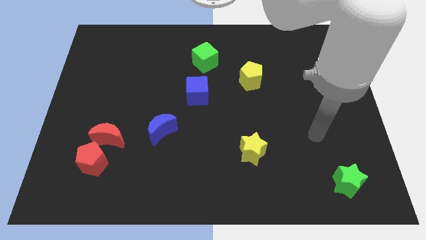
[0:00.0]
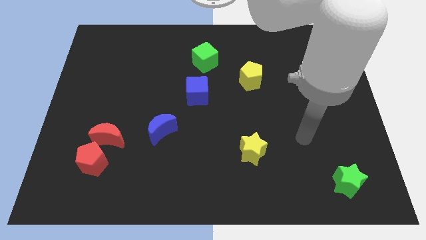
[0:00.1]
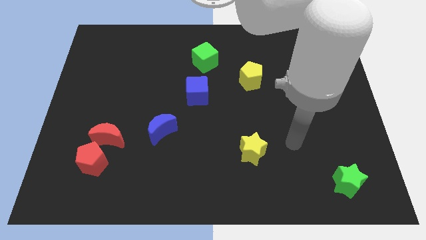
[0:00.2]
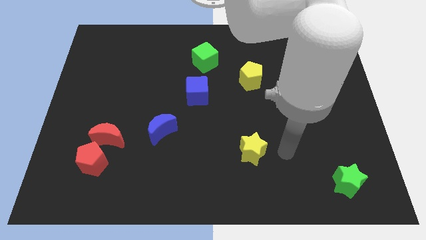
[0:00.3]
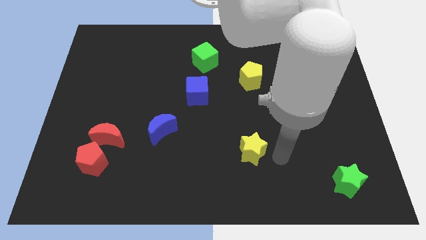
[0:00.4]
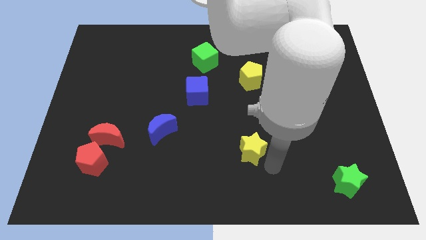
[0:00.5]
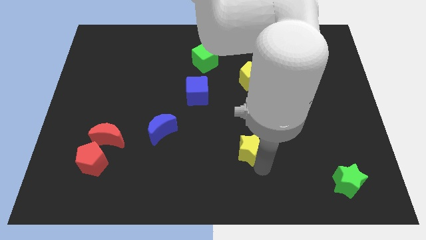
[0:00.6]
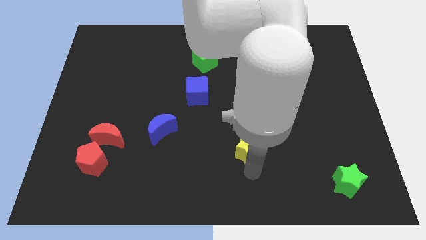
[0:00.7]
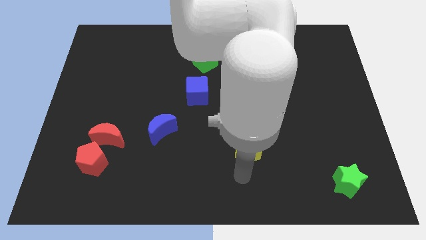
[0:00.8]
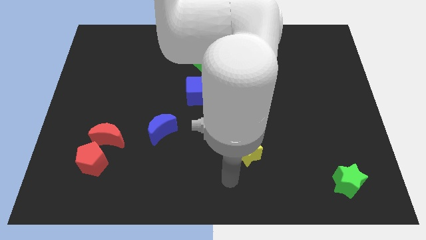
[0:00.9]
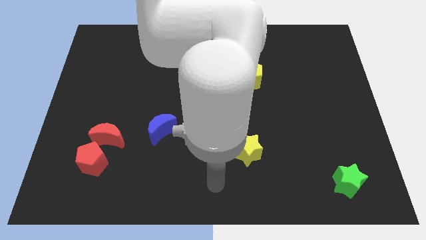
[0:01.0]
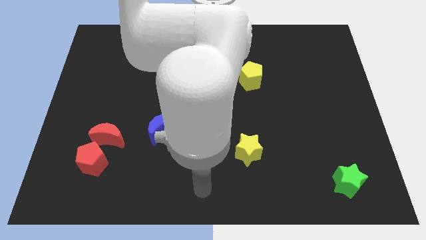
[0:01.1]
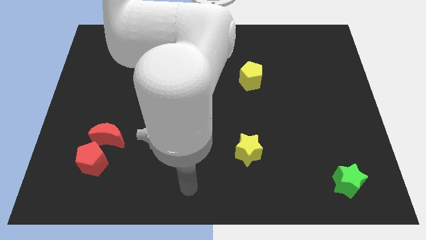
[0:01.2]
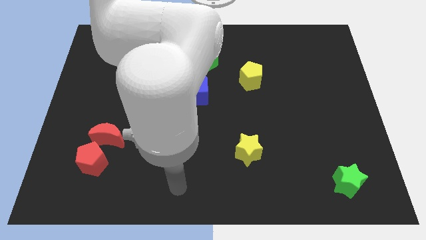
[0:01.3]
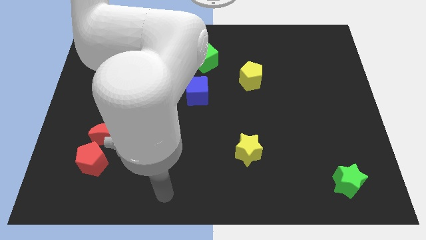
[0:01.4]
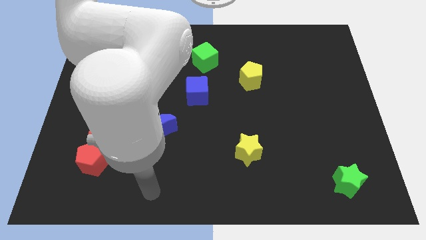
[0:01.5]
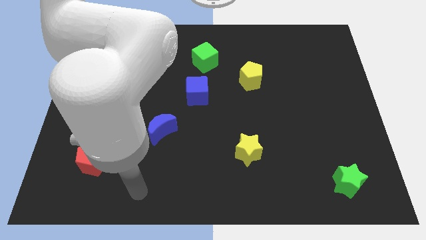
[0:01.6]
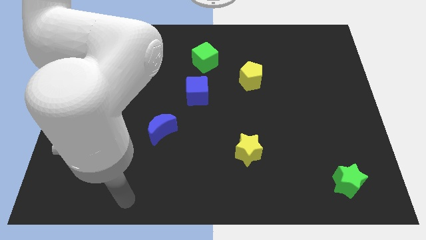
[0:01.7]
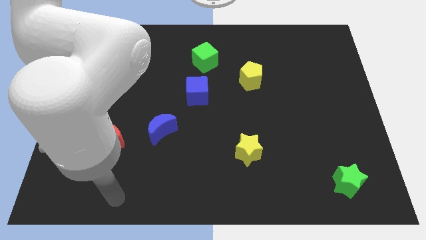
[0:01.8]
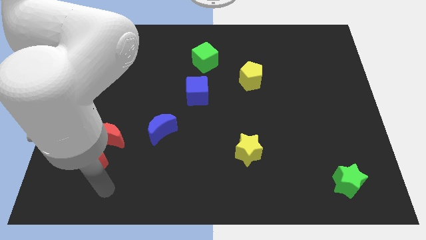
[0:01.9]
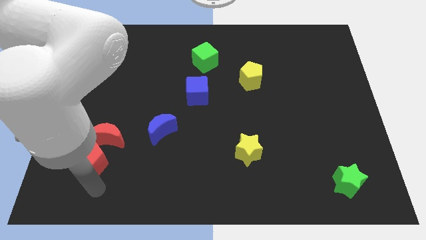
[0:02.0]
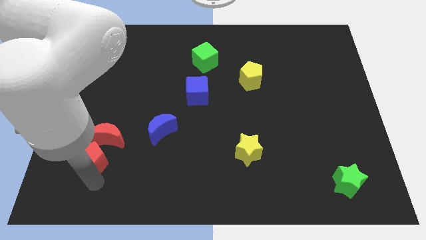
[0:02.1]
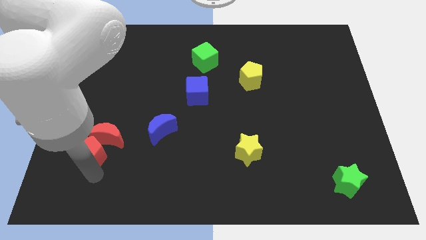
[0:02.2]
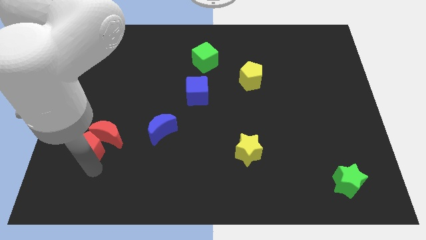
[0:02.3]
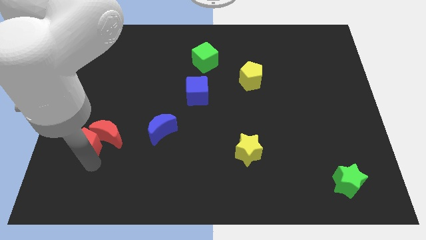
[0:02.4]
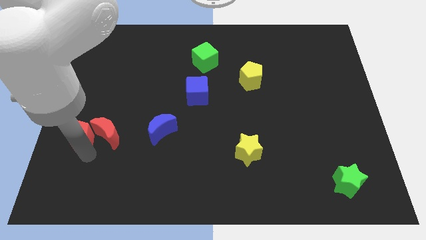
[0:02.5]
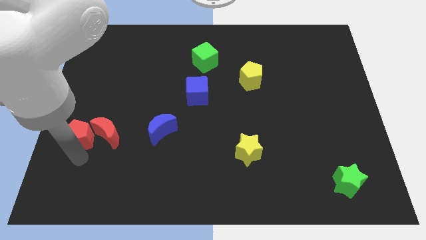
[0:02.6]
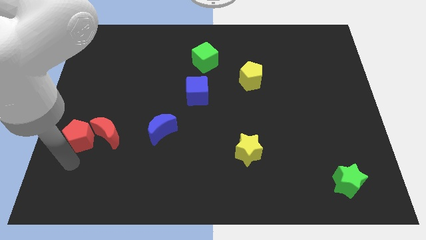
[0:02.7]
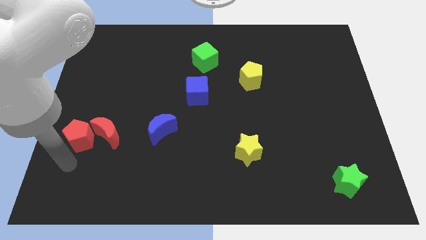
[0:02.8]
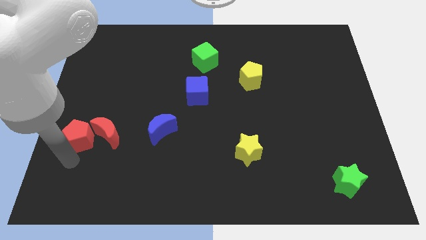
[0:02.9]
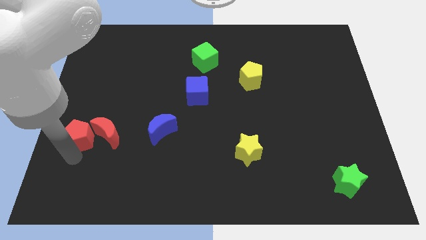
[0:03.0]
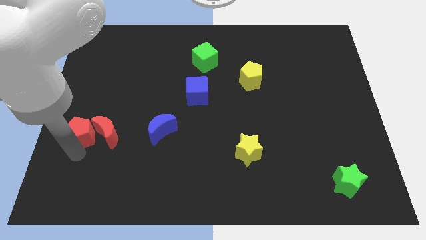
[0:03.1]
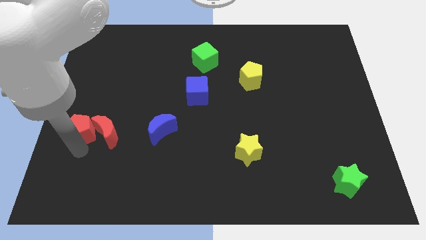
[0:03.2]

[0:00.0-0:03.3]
slightly push the red pentagon upwards

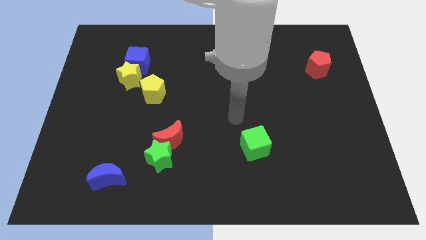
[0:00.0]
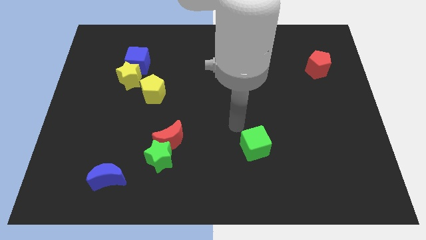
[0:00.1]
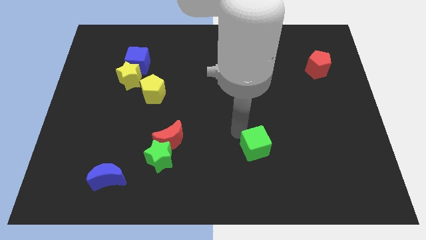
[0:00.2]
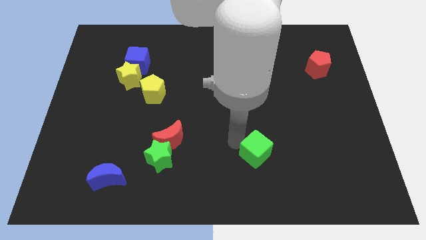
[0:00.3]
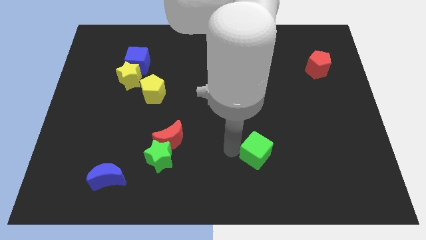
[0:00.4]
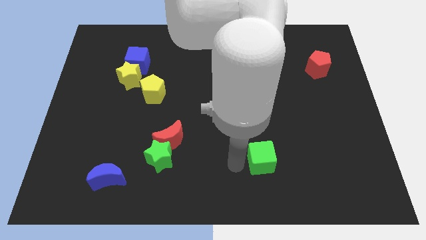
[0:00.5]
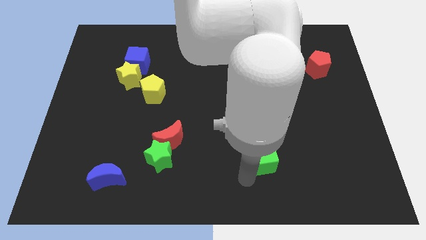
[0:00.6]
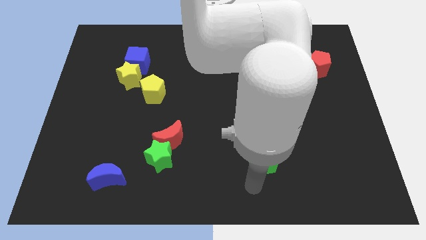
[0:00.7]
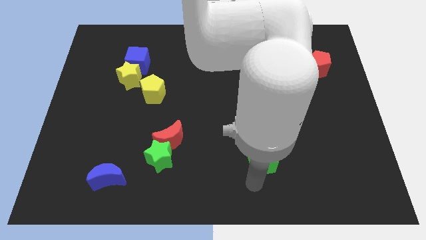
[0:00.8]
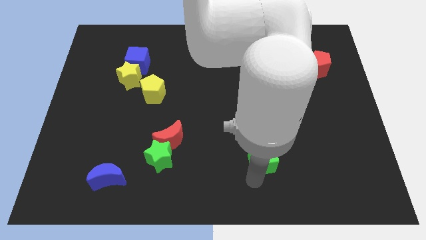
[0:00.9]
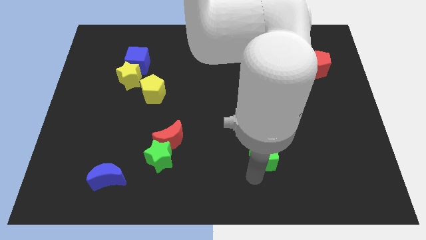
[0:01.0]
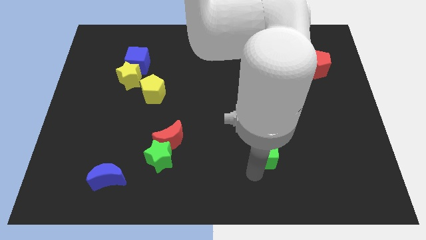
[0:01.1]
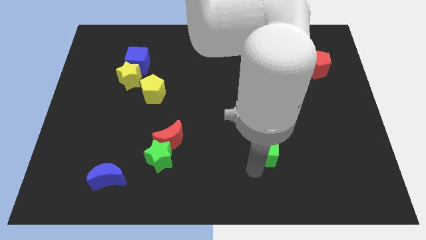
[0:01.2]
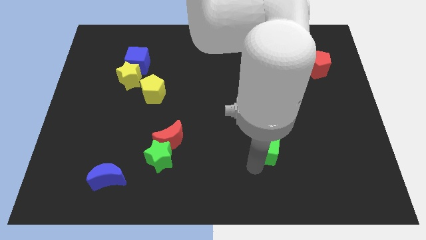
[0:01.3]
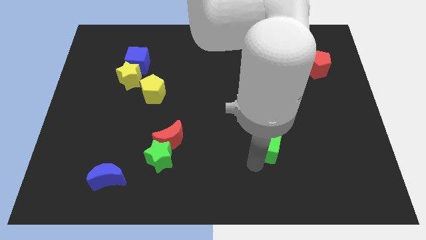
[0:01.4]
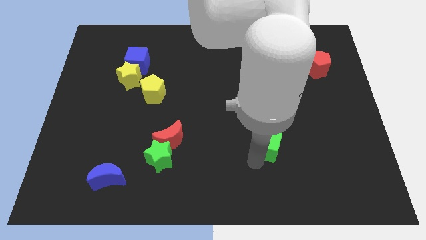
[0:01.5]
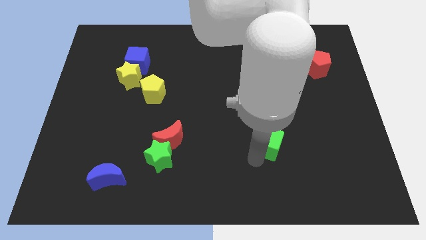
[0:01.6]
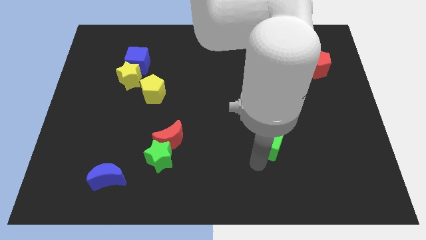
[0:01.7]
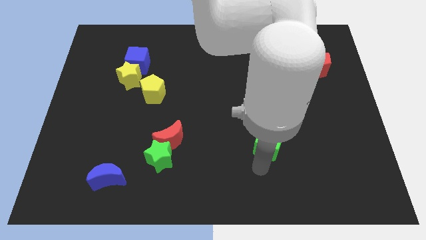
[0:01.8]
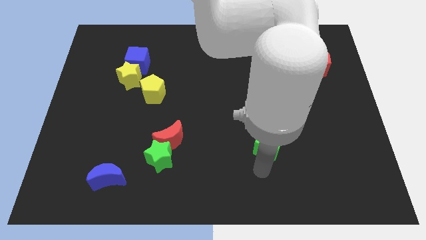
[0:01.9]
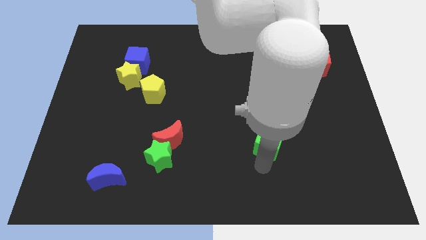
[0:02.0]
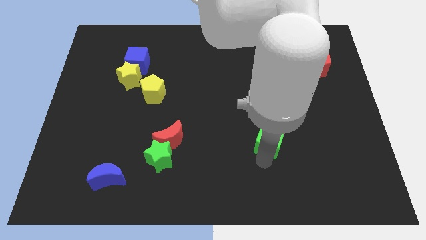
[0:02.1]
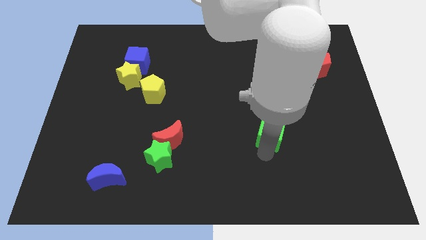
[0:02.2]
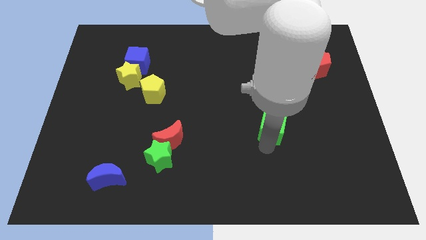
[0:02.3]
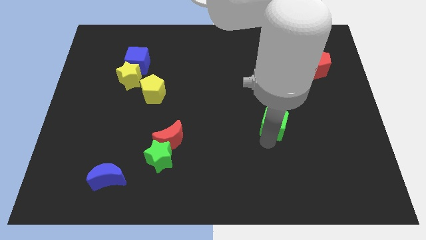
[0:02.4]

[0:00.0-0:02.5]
push the green cube somewhat up and to the right

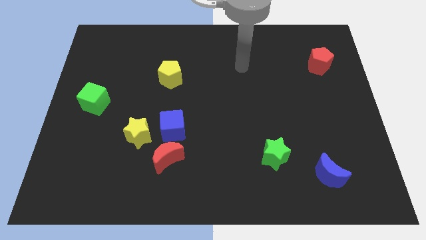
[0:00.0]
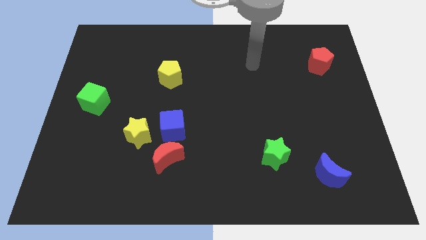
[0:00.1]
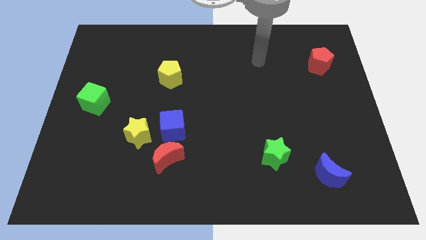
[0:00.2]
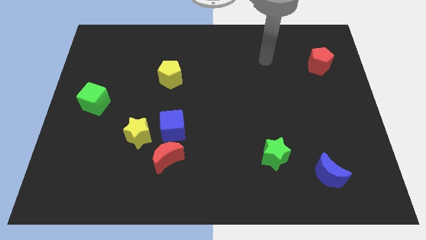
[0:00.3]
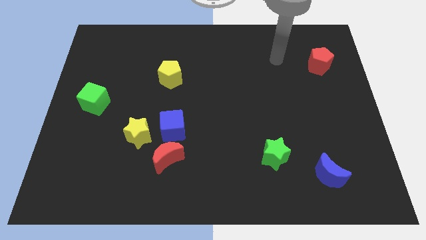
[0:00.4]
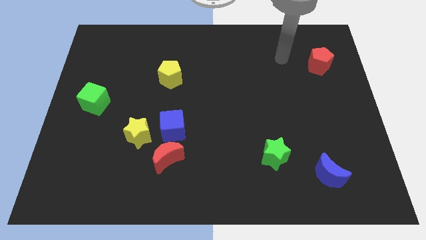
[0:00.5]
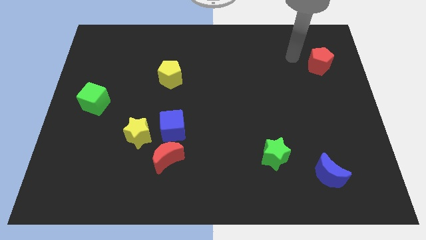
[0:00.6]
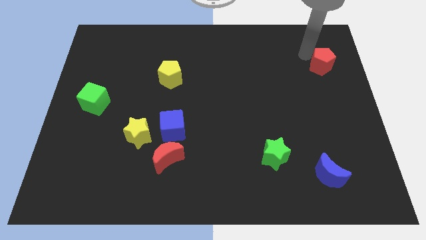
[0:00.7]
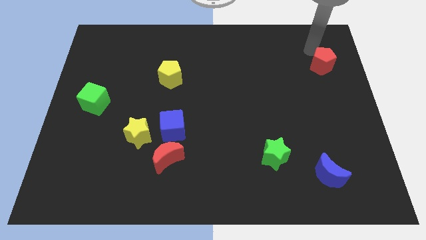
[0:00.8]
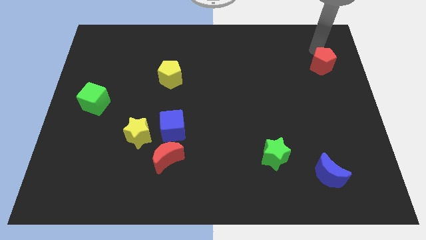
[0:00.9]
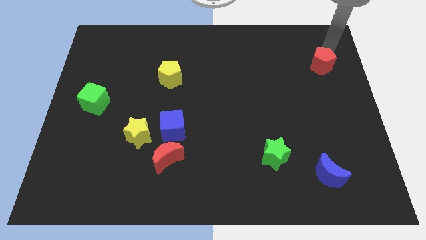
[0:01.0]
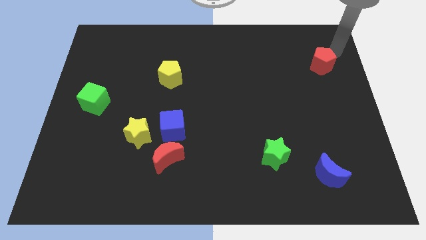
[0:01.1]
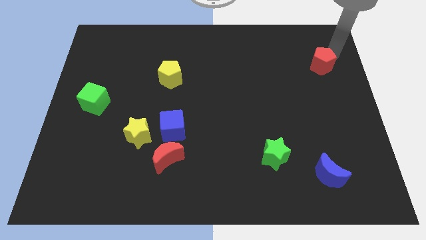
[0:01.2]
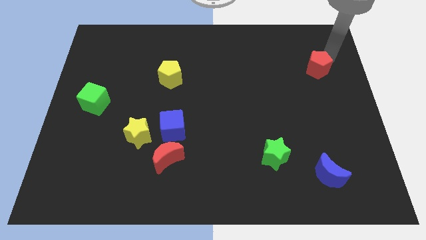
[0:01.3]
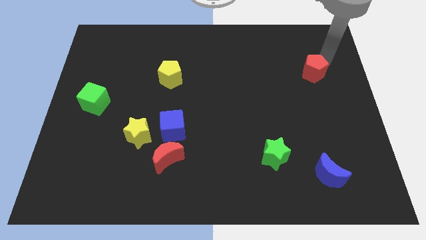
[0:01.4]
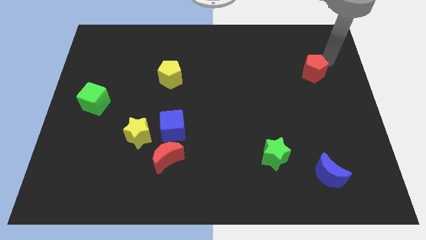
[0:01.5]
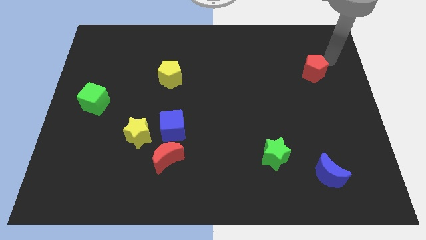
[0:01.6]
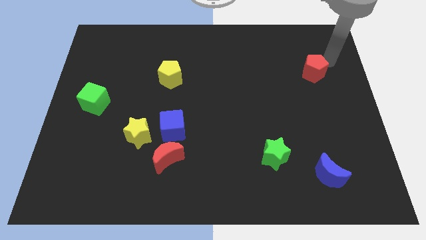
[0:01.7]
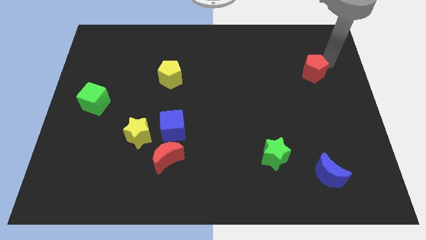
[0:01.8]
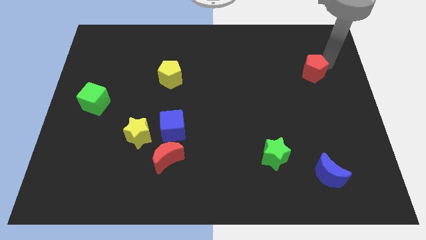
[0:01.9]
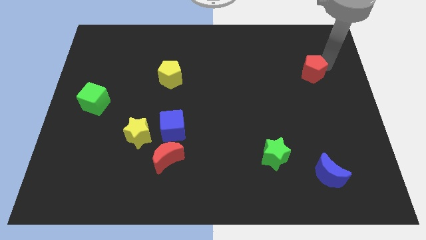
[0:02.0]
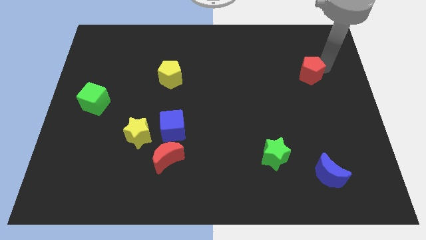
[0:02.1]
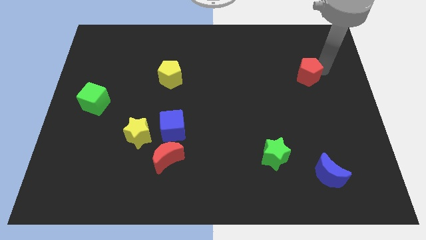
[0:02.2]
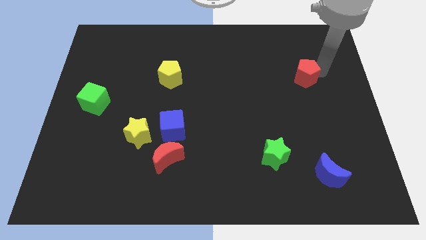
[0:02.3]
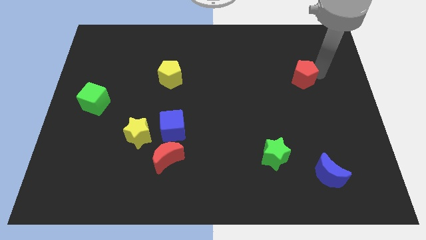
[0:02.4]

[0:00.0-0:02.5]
slide the red pentagon a bit downwards and to the left diagonally
